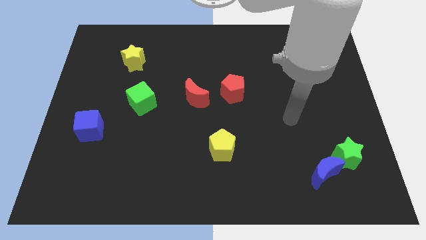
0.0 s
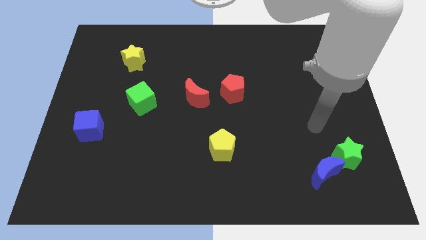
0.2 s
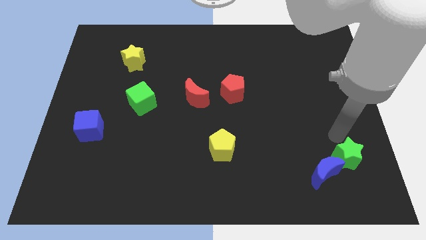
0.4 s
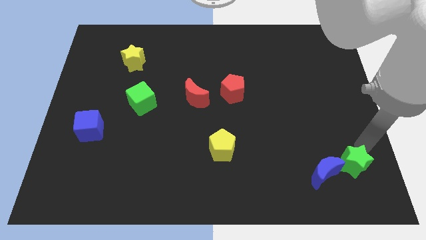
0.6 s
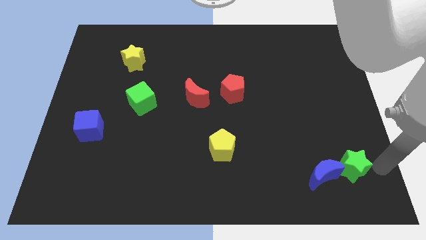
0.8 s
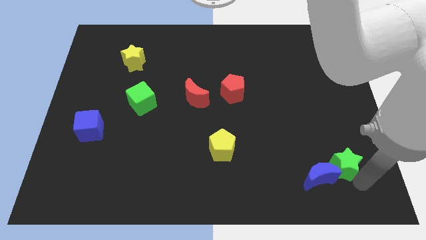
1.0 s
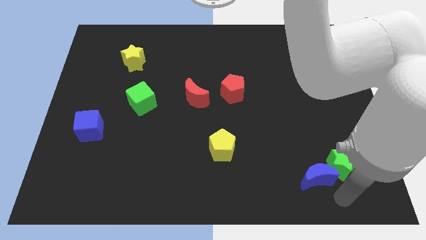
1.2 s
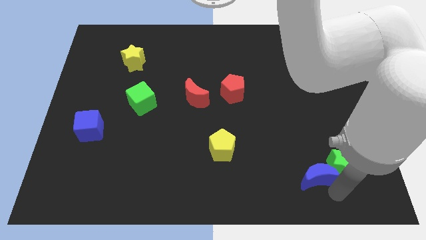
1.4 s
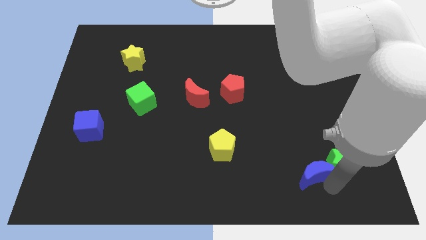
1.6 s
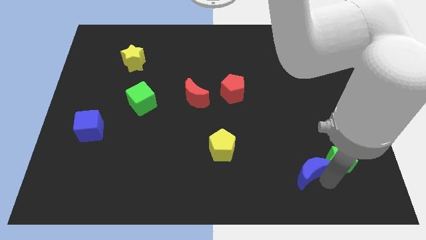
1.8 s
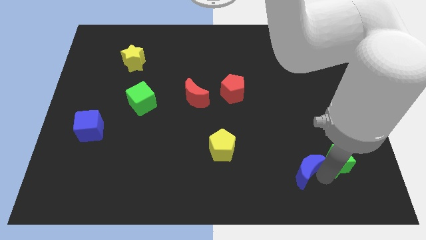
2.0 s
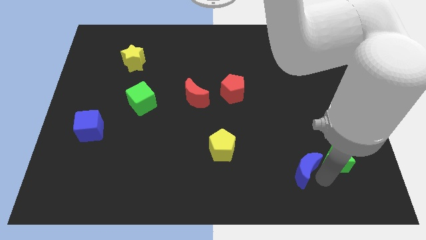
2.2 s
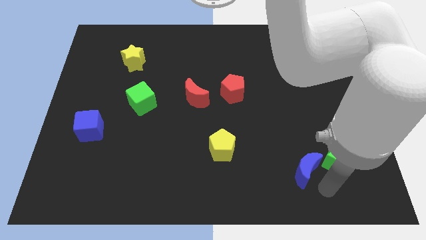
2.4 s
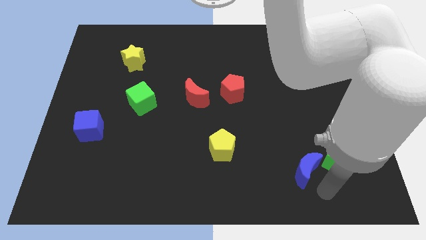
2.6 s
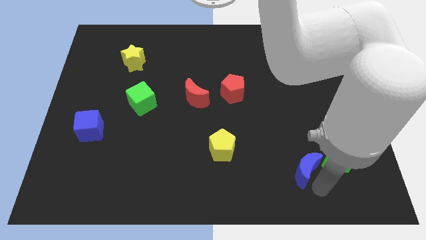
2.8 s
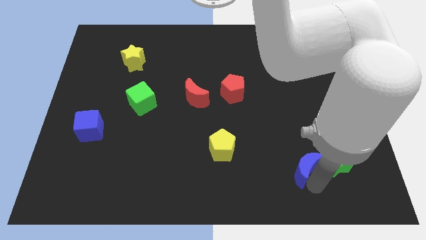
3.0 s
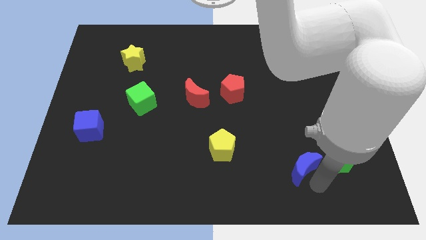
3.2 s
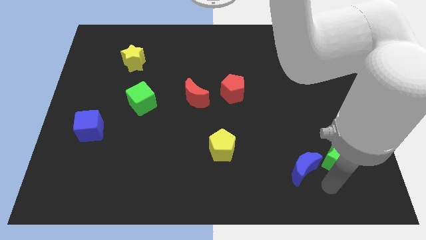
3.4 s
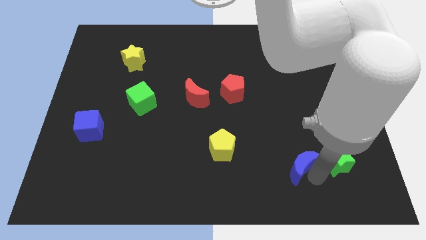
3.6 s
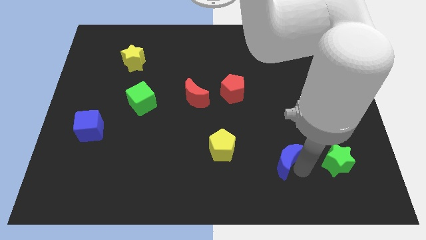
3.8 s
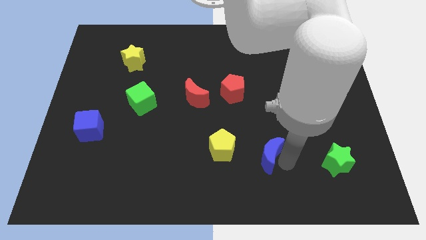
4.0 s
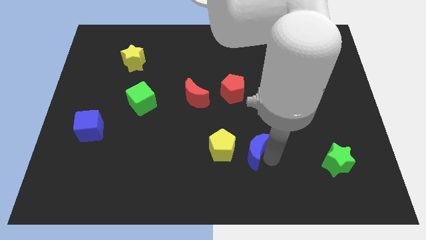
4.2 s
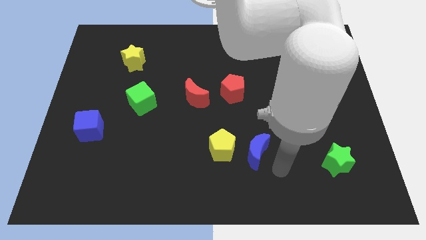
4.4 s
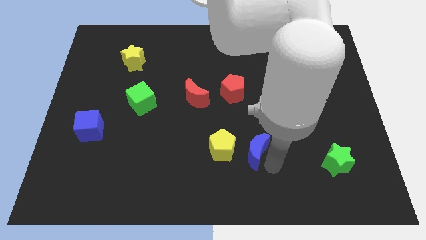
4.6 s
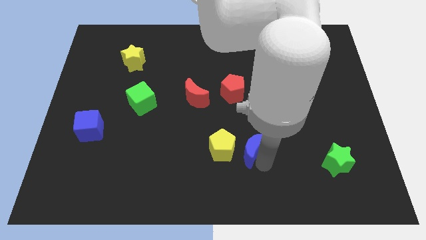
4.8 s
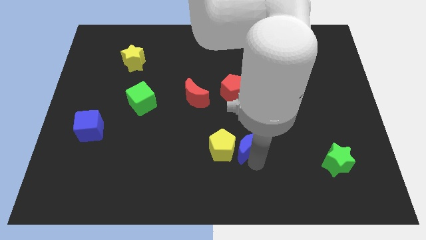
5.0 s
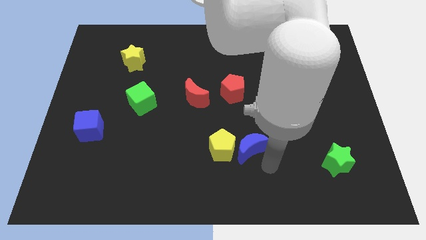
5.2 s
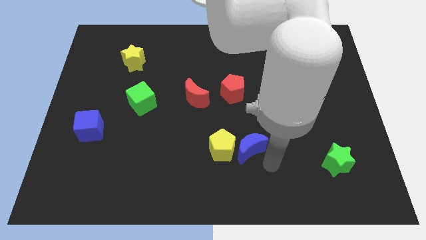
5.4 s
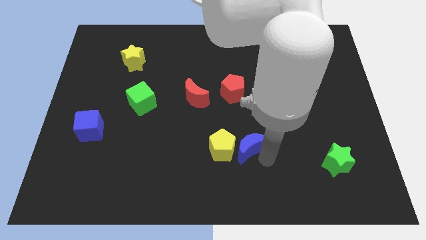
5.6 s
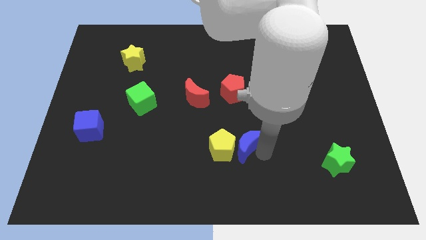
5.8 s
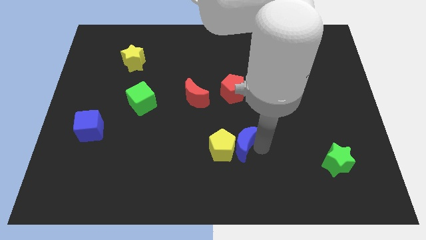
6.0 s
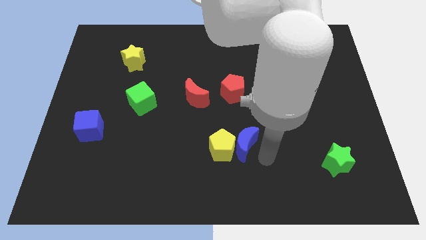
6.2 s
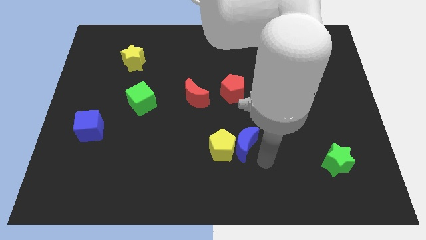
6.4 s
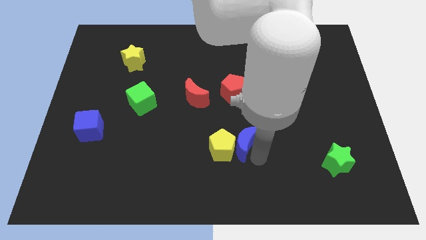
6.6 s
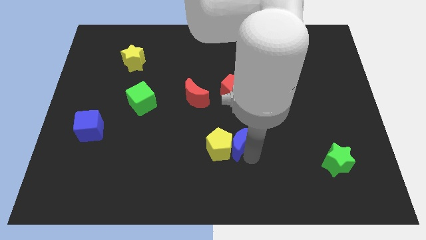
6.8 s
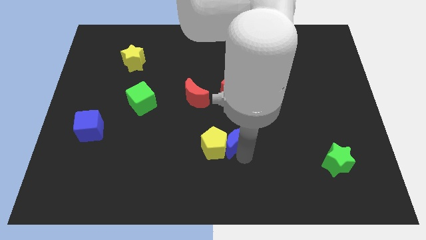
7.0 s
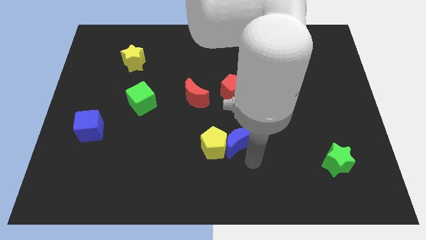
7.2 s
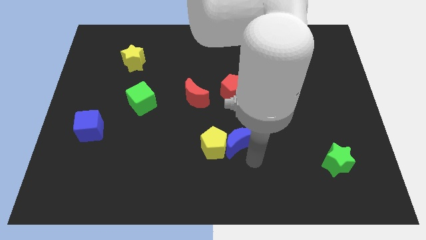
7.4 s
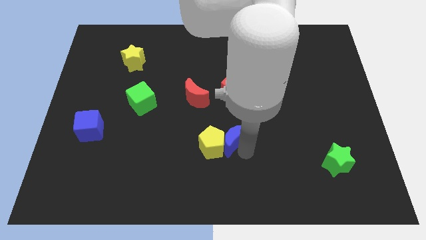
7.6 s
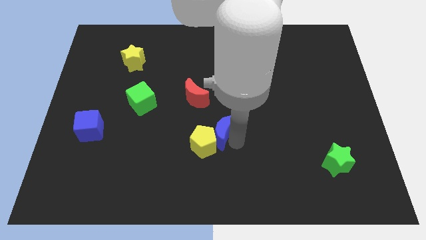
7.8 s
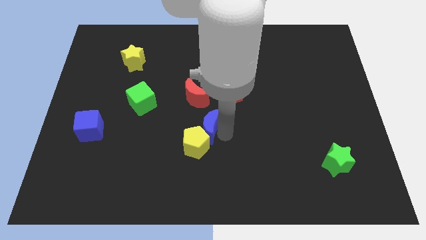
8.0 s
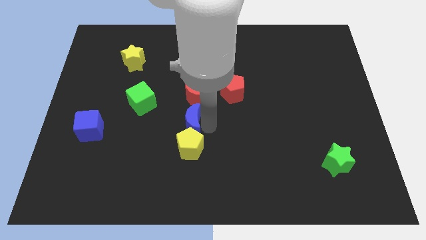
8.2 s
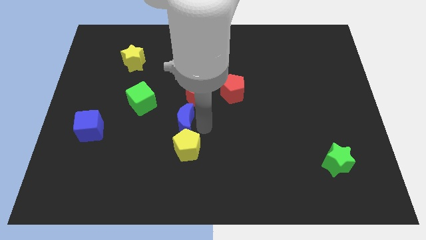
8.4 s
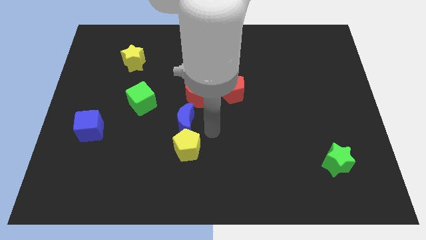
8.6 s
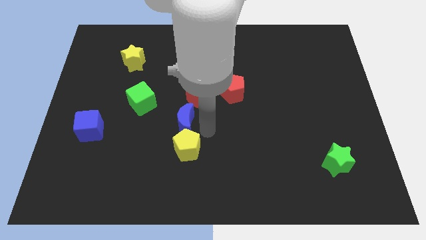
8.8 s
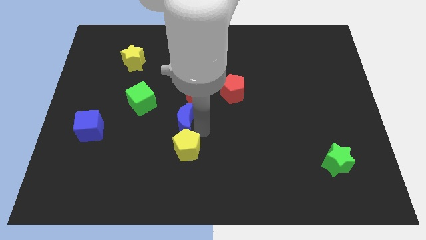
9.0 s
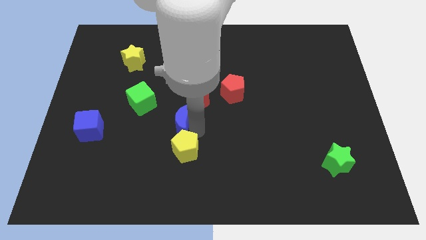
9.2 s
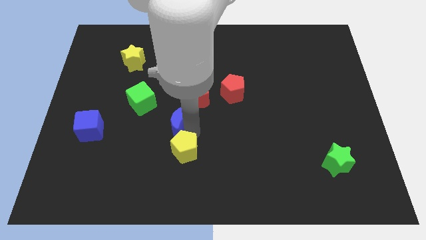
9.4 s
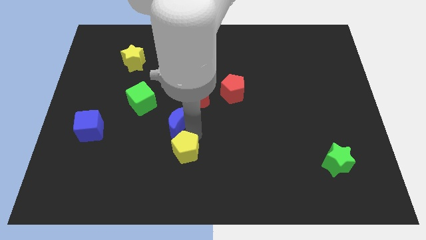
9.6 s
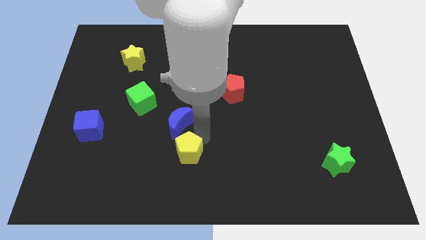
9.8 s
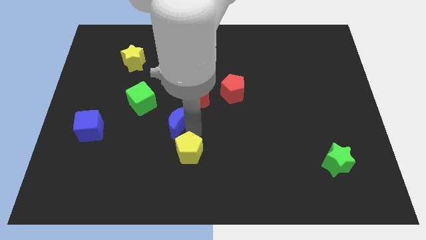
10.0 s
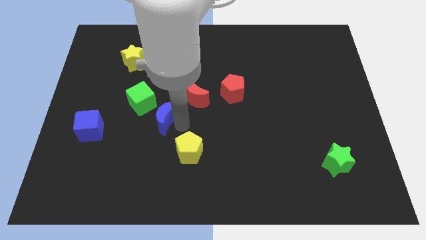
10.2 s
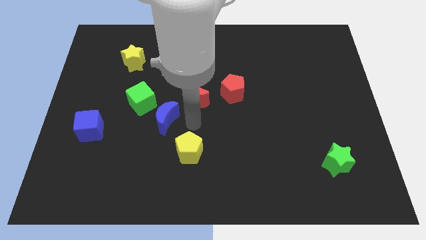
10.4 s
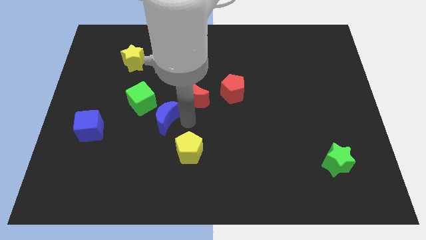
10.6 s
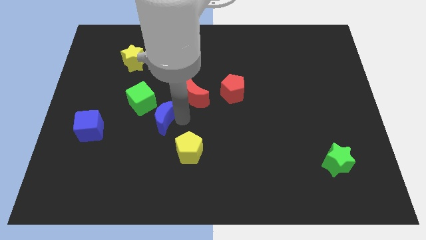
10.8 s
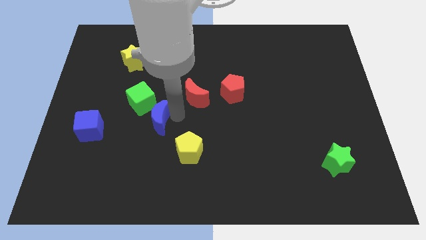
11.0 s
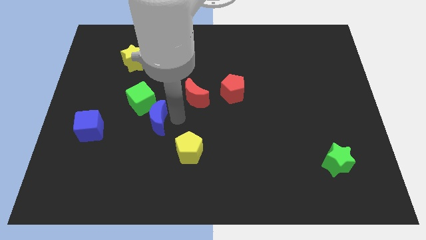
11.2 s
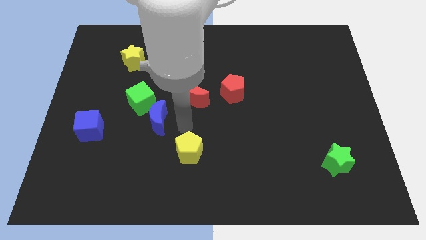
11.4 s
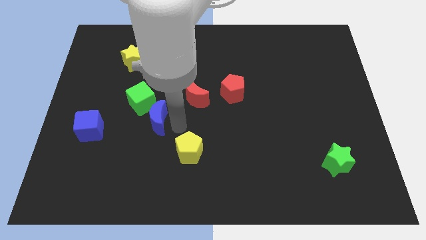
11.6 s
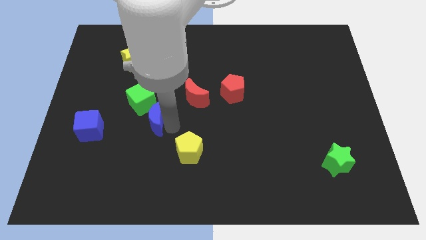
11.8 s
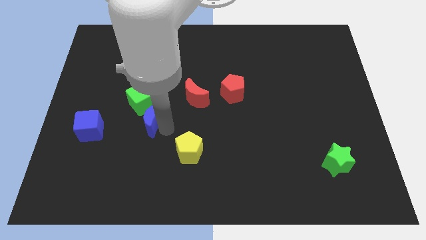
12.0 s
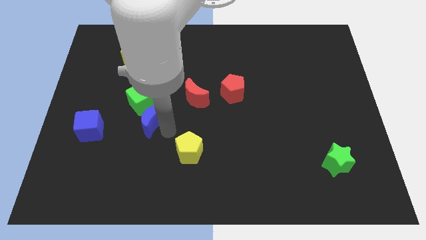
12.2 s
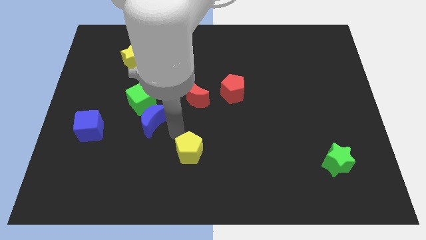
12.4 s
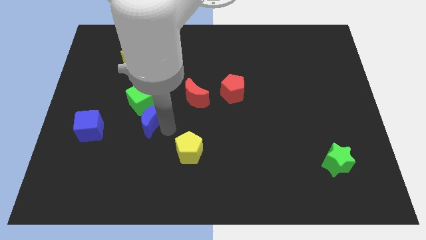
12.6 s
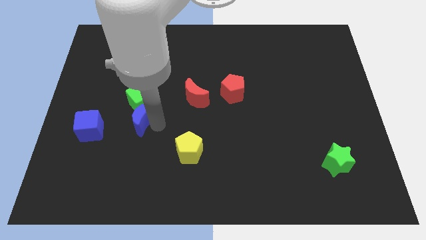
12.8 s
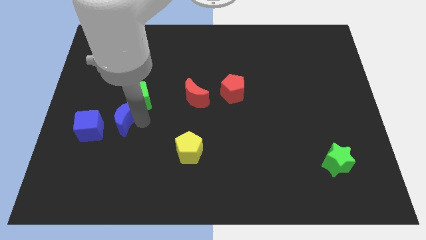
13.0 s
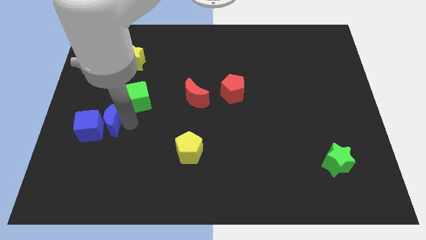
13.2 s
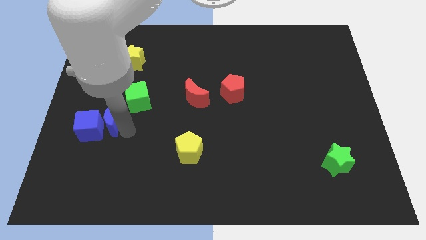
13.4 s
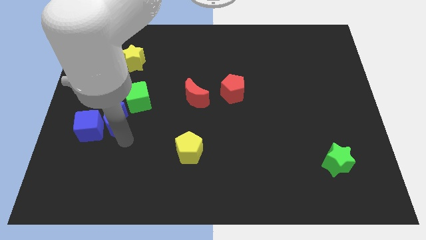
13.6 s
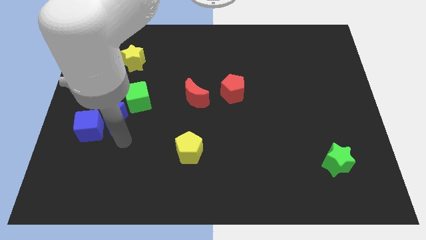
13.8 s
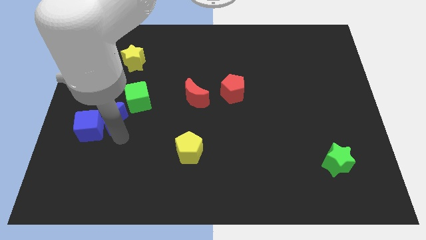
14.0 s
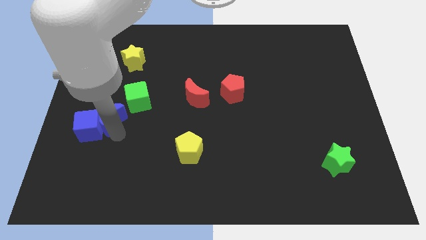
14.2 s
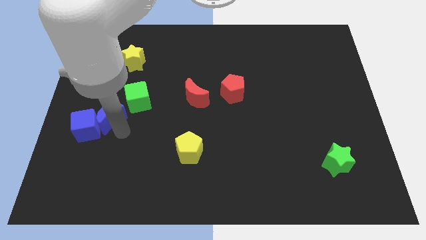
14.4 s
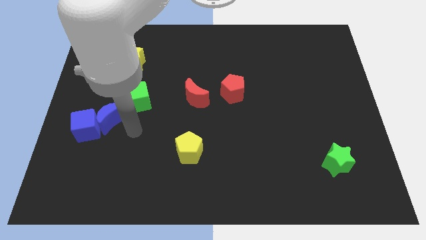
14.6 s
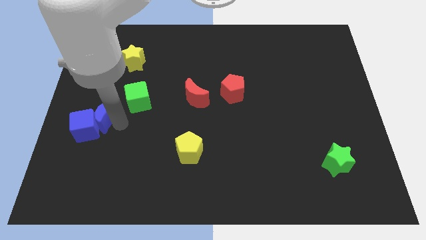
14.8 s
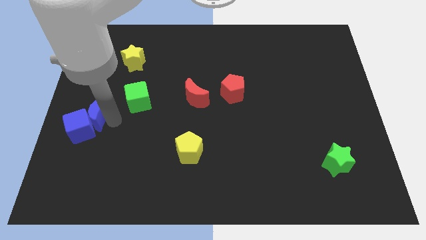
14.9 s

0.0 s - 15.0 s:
move the blue moon to the left side

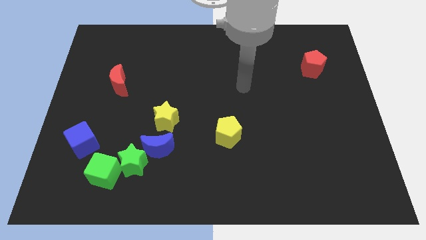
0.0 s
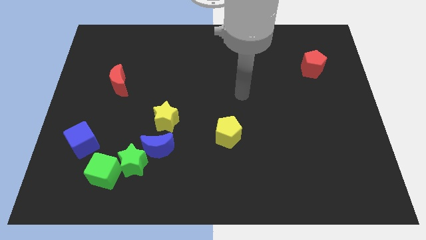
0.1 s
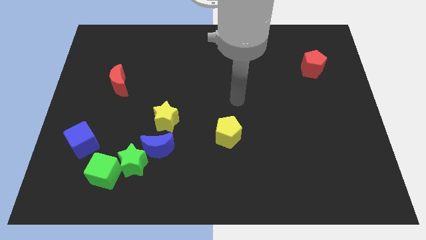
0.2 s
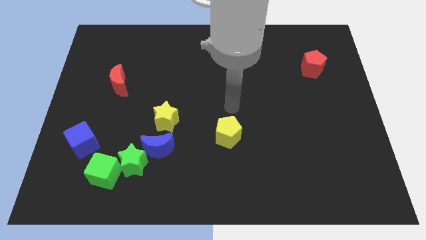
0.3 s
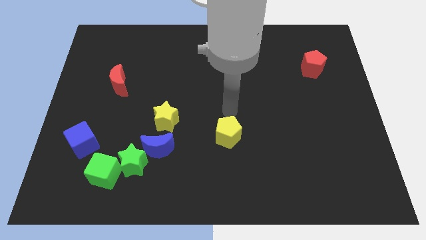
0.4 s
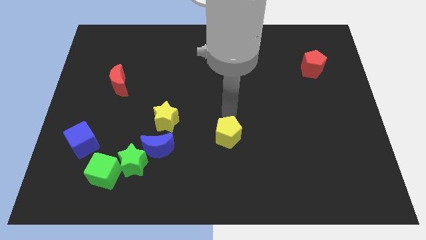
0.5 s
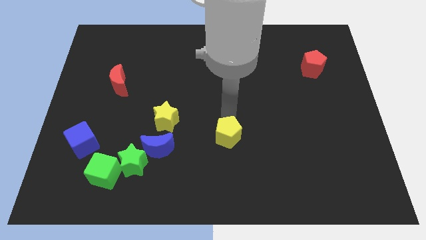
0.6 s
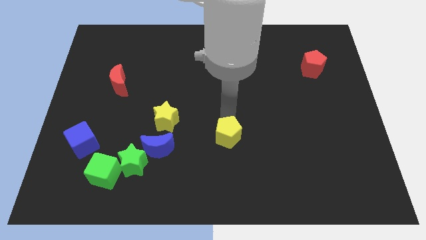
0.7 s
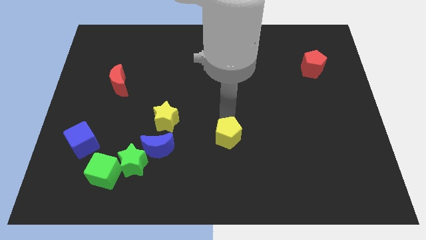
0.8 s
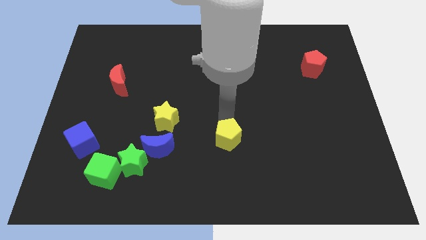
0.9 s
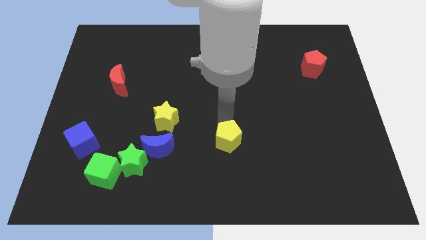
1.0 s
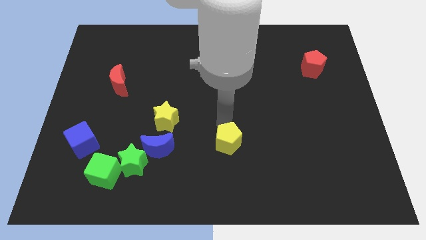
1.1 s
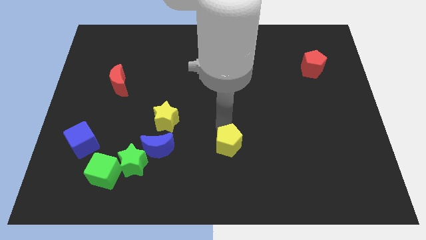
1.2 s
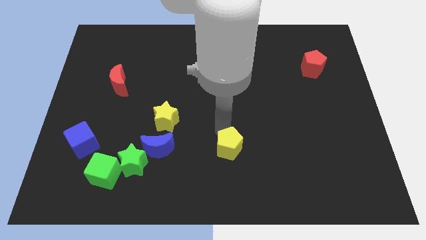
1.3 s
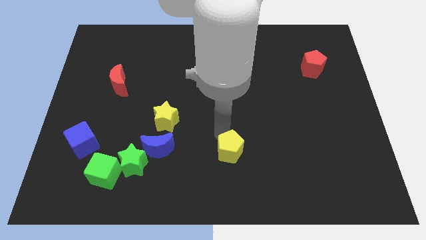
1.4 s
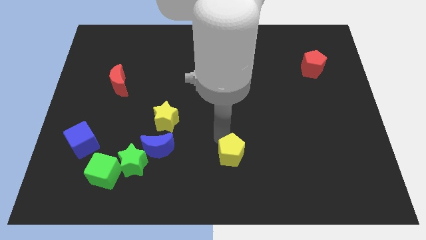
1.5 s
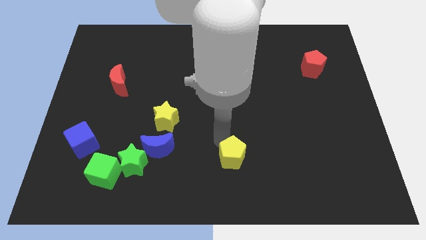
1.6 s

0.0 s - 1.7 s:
put the yellow pentagon to the bottom
